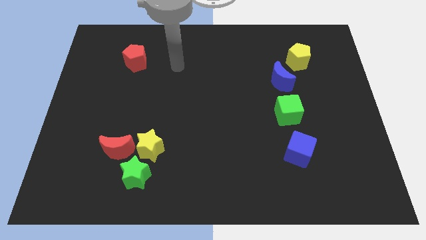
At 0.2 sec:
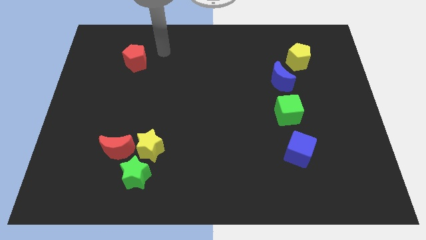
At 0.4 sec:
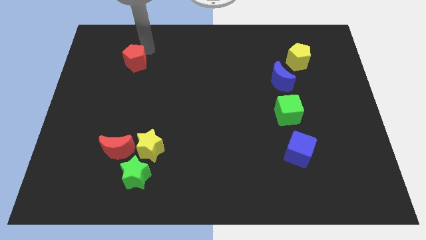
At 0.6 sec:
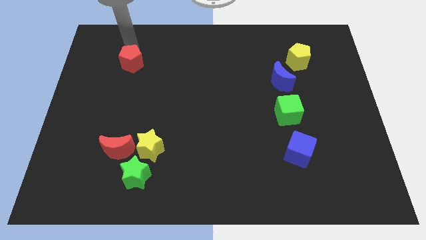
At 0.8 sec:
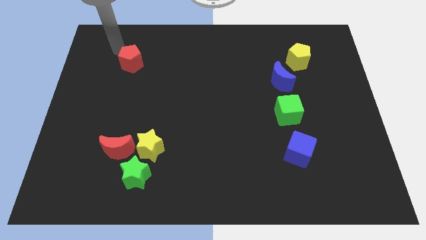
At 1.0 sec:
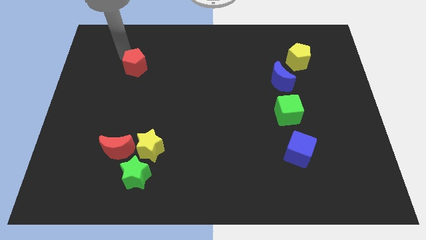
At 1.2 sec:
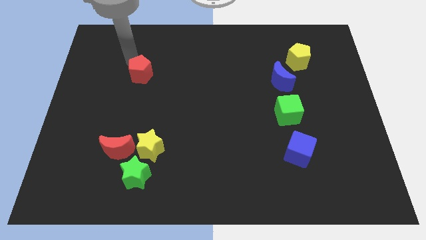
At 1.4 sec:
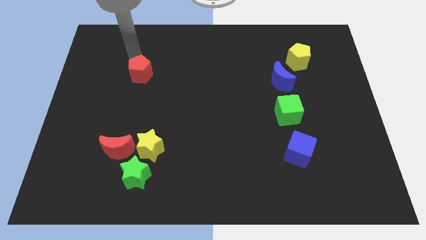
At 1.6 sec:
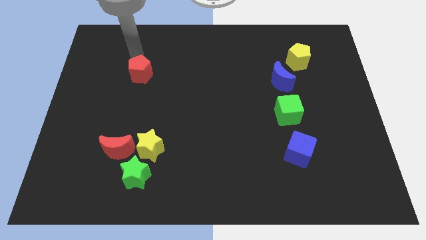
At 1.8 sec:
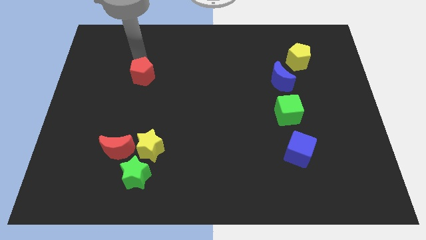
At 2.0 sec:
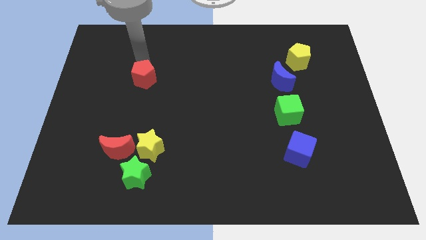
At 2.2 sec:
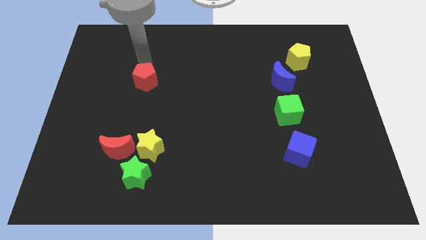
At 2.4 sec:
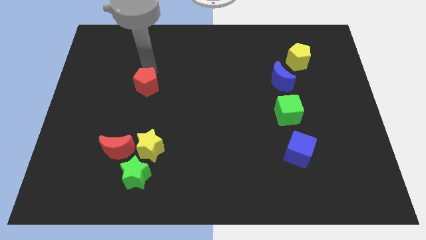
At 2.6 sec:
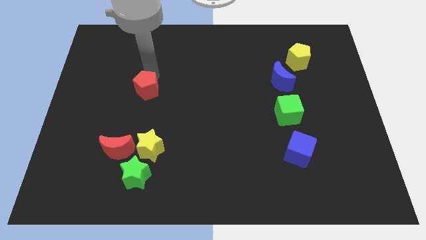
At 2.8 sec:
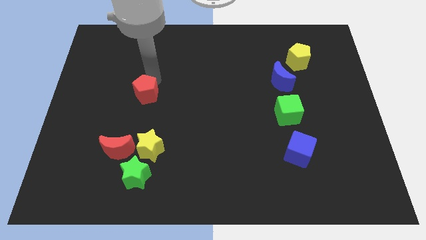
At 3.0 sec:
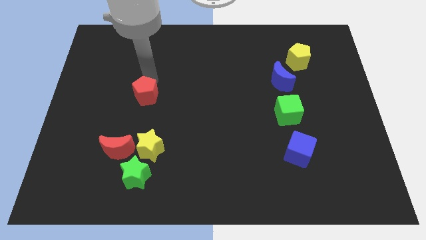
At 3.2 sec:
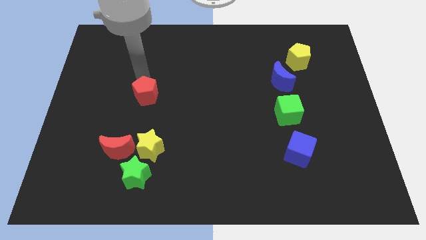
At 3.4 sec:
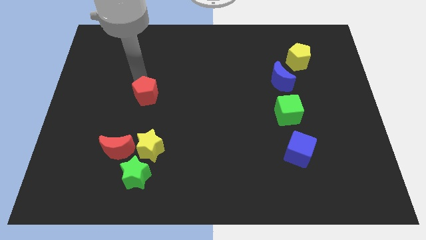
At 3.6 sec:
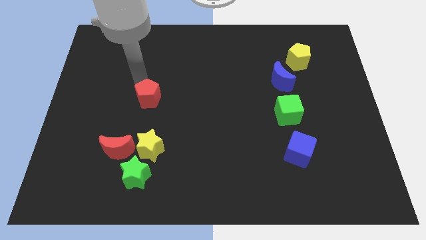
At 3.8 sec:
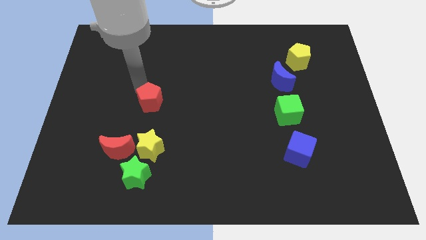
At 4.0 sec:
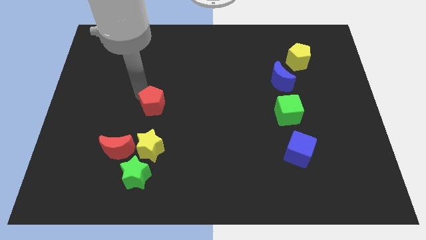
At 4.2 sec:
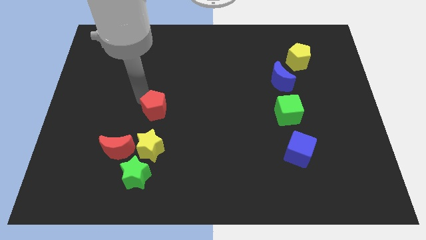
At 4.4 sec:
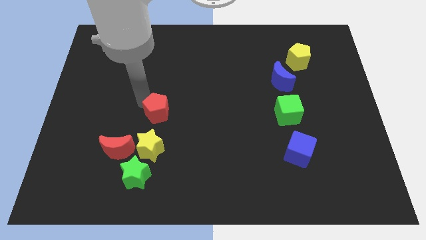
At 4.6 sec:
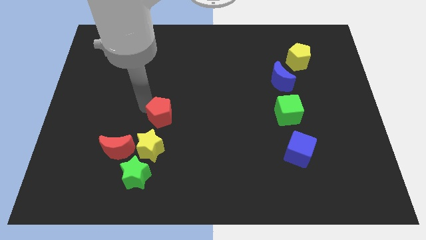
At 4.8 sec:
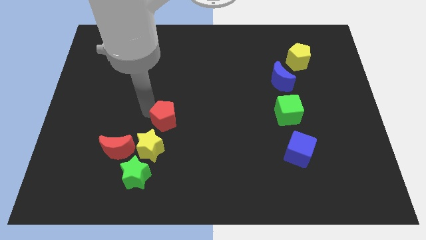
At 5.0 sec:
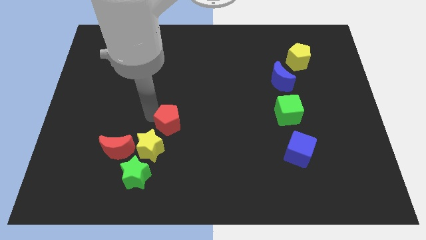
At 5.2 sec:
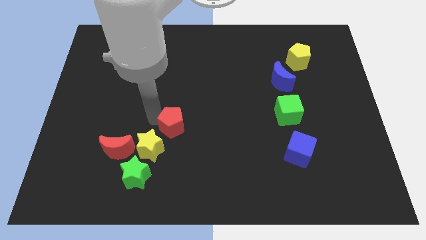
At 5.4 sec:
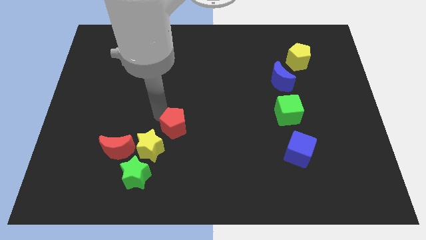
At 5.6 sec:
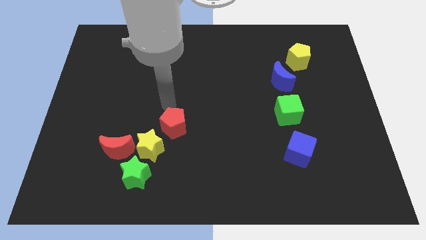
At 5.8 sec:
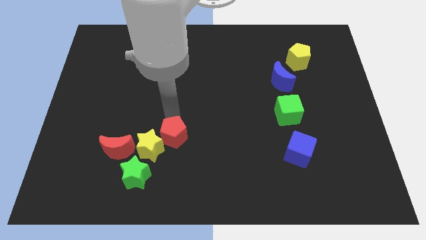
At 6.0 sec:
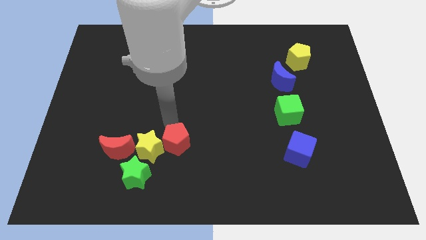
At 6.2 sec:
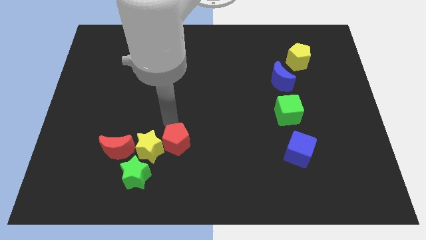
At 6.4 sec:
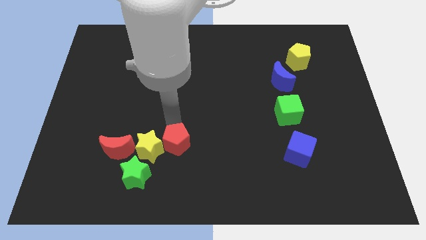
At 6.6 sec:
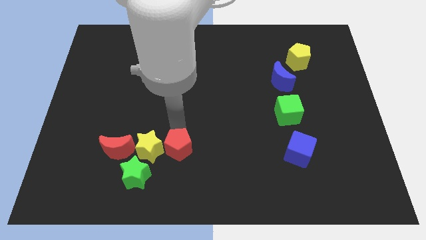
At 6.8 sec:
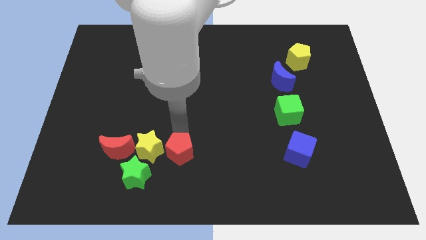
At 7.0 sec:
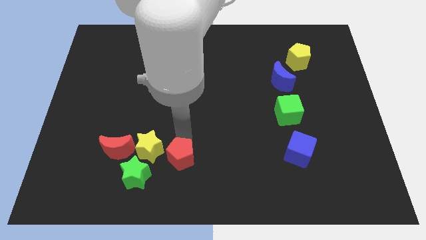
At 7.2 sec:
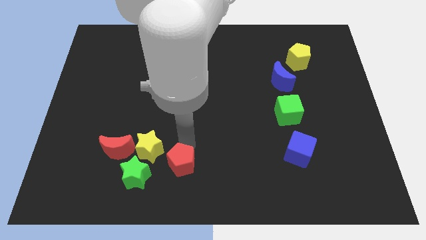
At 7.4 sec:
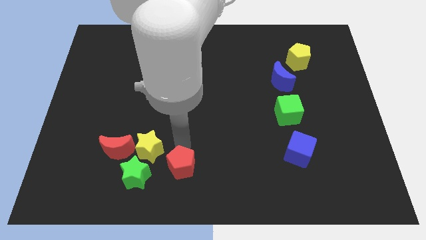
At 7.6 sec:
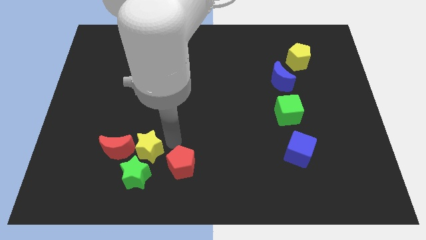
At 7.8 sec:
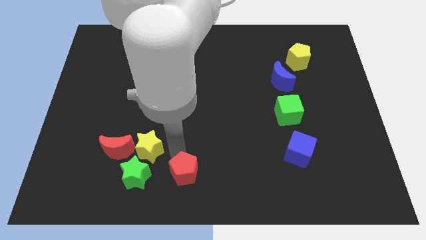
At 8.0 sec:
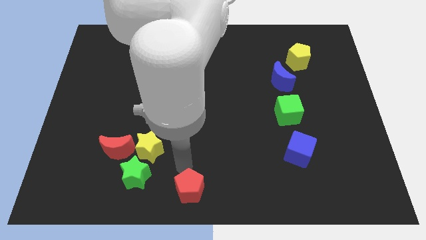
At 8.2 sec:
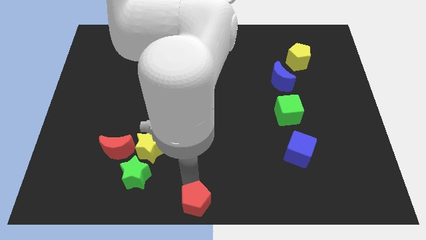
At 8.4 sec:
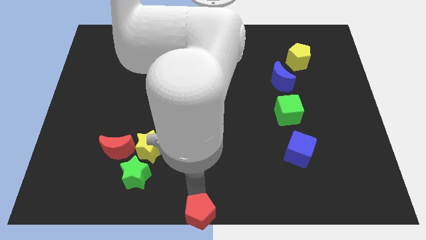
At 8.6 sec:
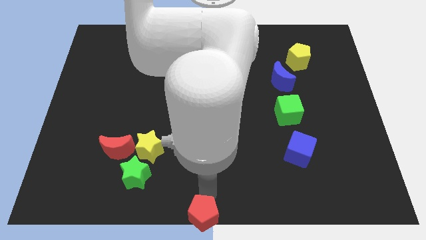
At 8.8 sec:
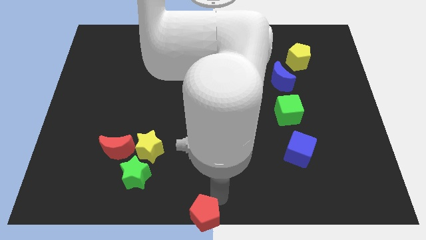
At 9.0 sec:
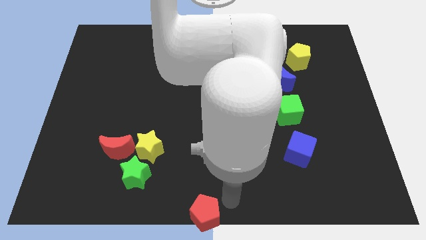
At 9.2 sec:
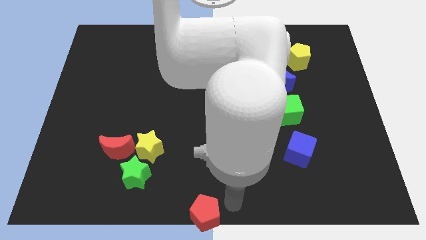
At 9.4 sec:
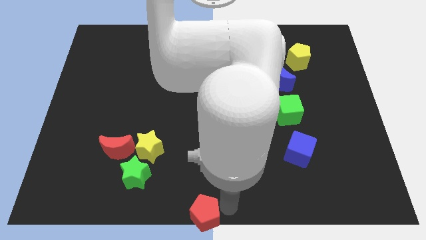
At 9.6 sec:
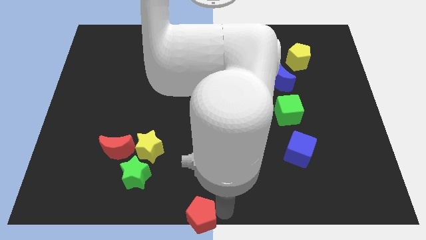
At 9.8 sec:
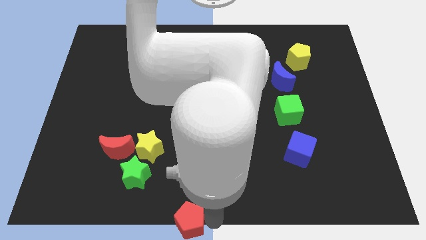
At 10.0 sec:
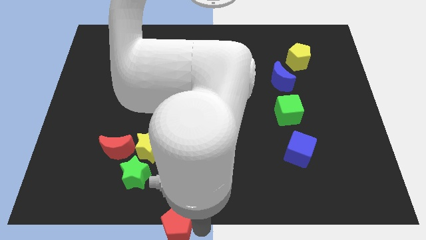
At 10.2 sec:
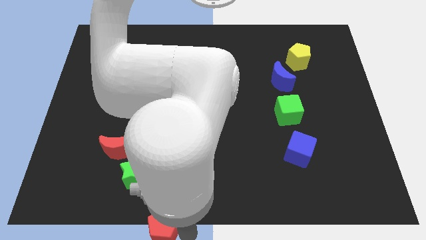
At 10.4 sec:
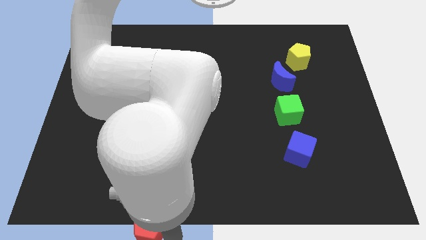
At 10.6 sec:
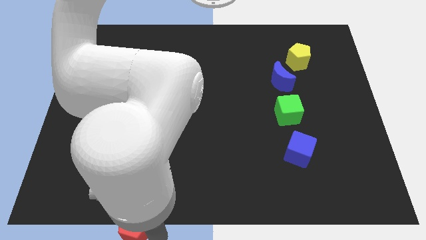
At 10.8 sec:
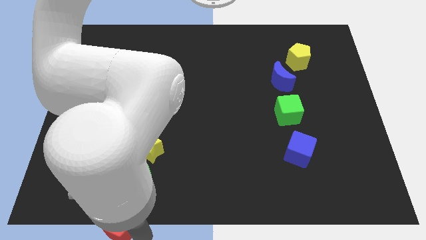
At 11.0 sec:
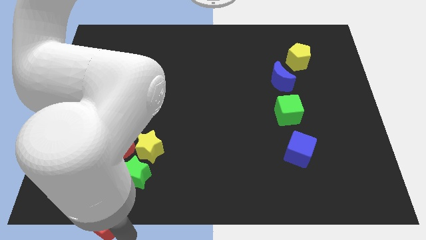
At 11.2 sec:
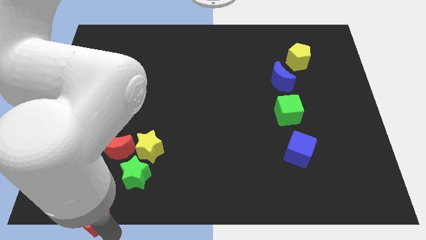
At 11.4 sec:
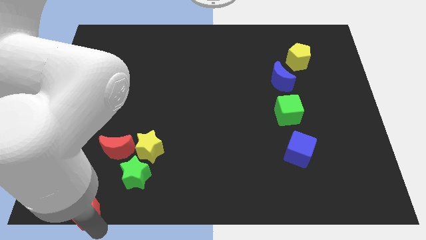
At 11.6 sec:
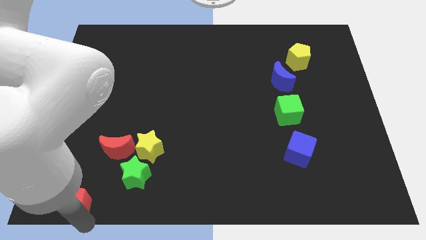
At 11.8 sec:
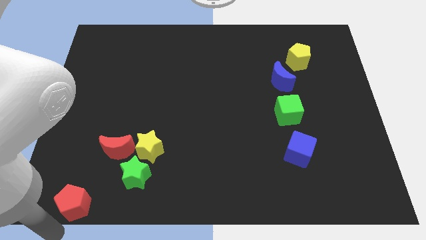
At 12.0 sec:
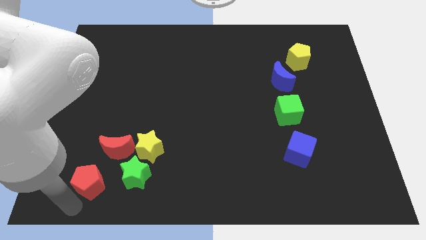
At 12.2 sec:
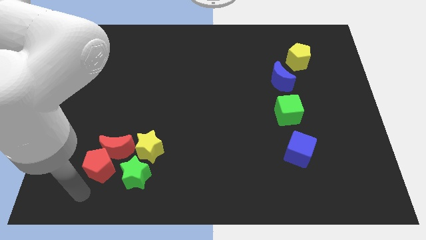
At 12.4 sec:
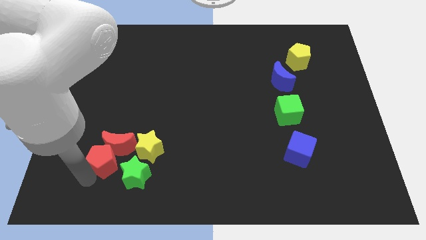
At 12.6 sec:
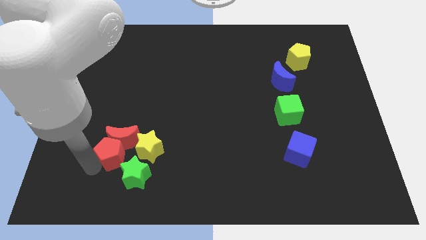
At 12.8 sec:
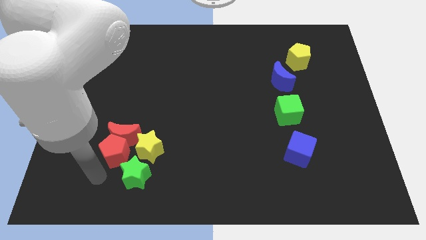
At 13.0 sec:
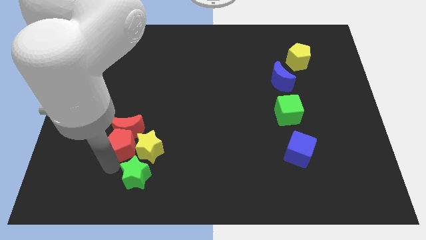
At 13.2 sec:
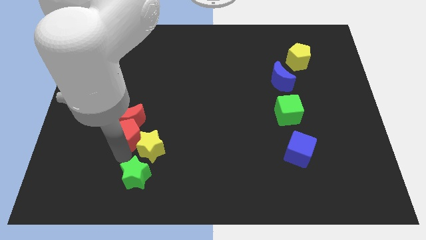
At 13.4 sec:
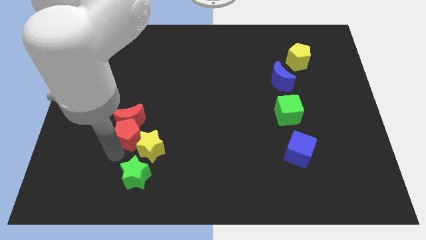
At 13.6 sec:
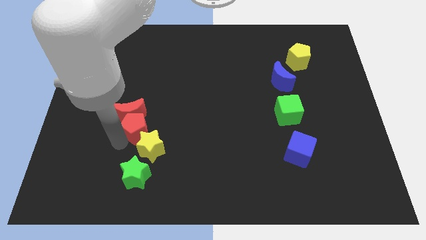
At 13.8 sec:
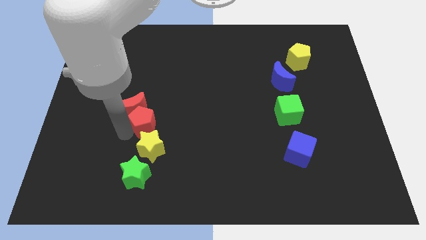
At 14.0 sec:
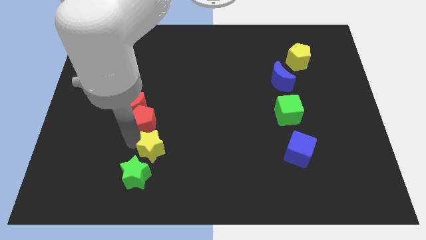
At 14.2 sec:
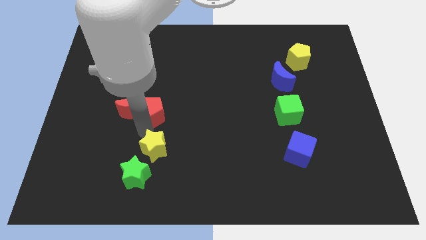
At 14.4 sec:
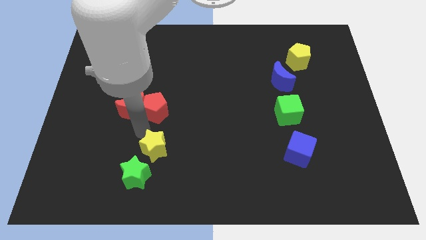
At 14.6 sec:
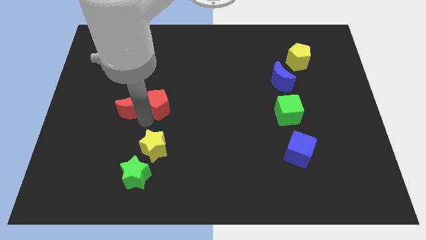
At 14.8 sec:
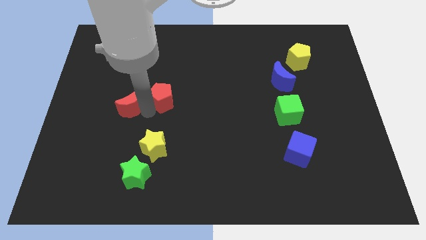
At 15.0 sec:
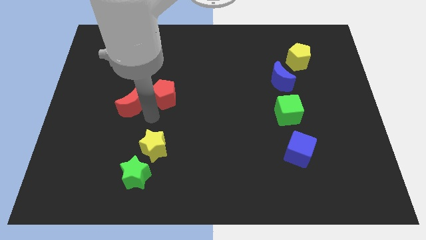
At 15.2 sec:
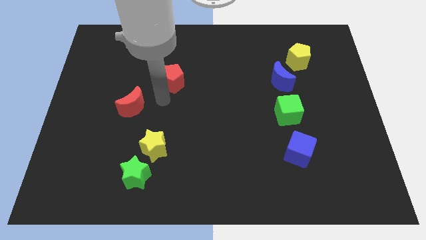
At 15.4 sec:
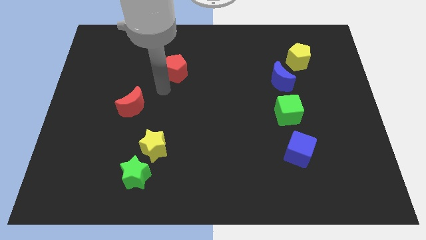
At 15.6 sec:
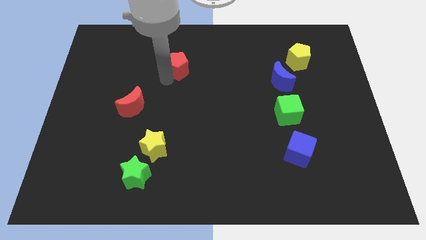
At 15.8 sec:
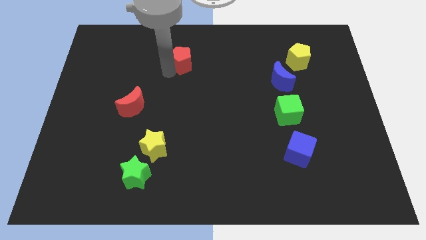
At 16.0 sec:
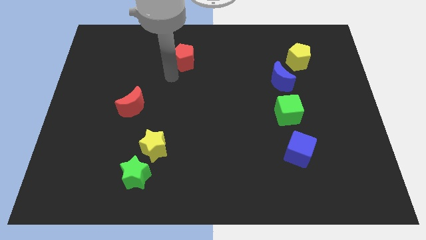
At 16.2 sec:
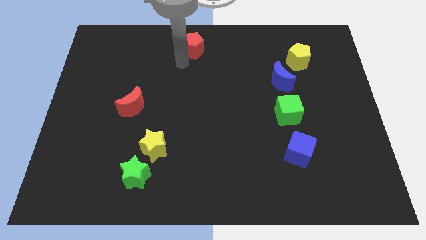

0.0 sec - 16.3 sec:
slide the red pentagon to the towards your base
